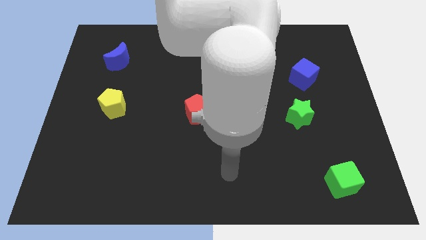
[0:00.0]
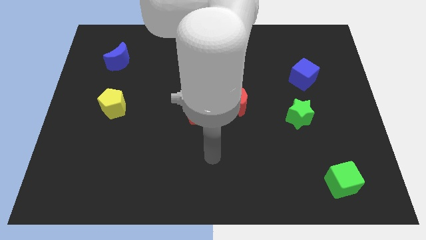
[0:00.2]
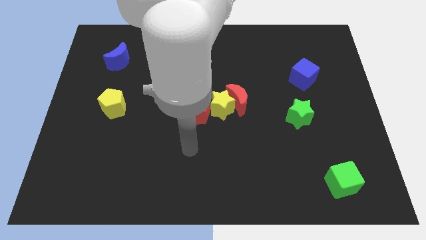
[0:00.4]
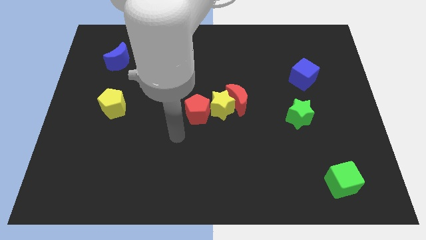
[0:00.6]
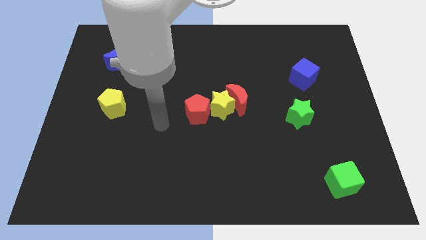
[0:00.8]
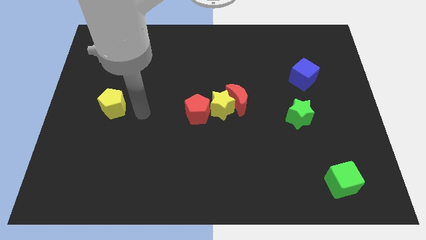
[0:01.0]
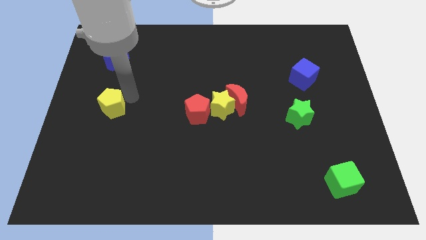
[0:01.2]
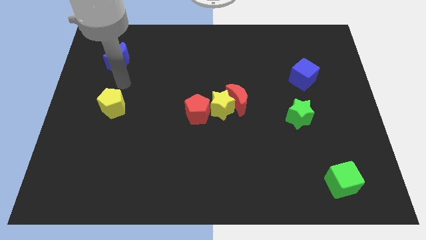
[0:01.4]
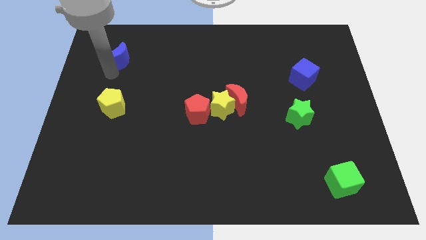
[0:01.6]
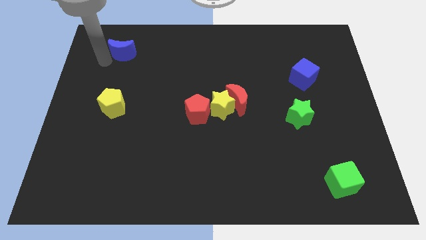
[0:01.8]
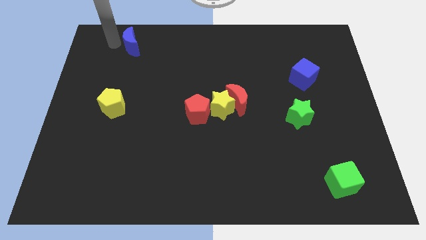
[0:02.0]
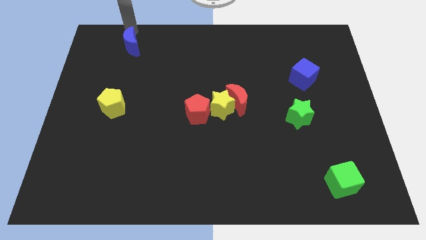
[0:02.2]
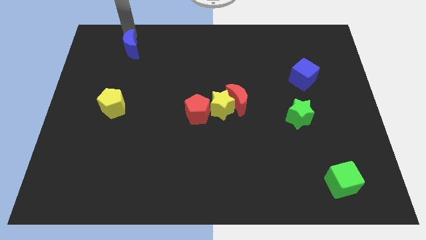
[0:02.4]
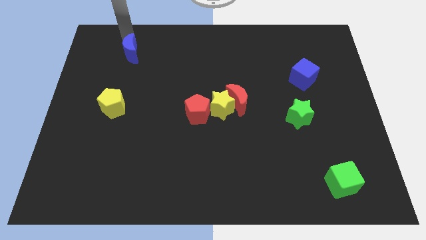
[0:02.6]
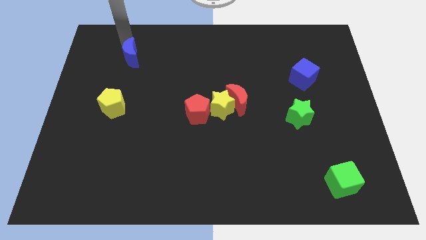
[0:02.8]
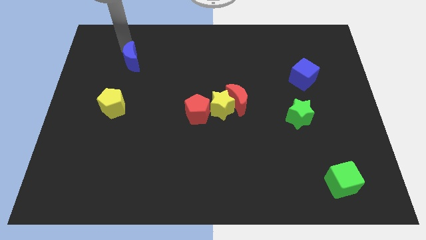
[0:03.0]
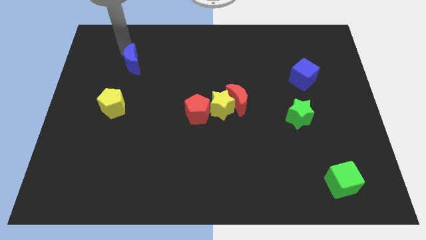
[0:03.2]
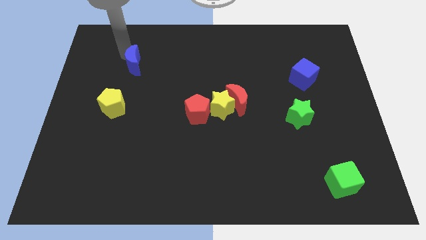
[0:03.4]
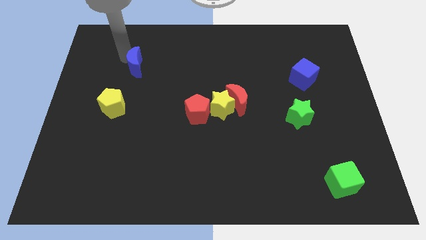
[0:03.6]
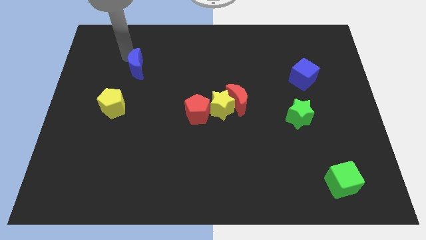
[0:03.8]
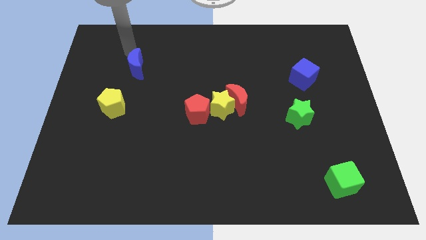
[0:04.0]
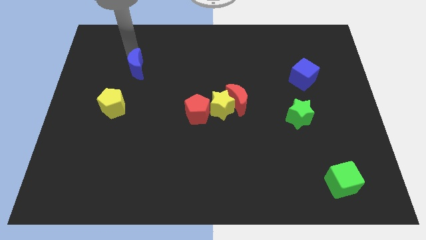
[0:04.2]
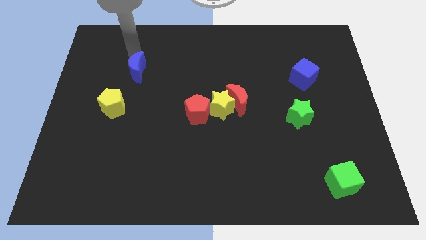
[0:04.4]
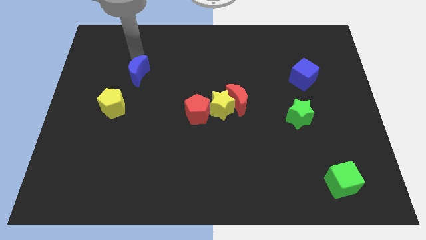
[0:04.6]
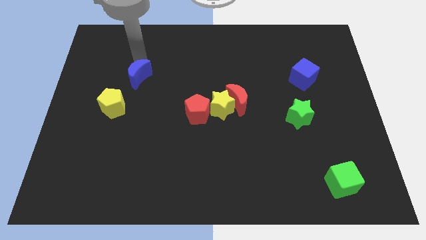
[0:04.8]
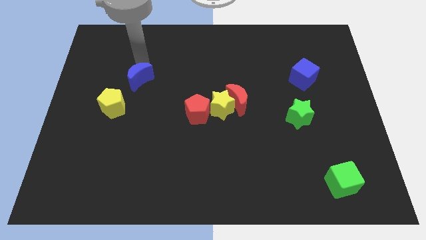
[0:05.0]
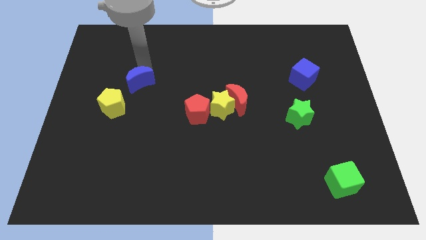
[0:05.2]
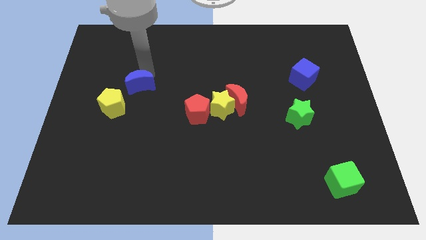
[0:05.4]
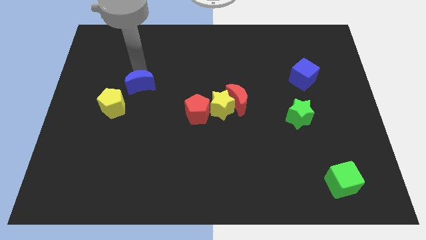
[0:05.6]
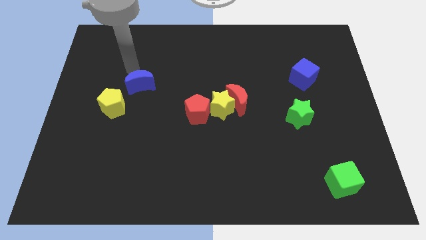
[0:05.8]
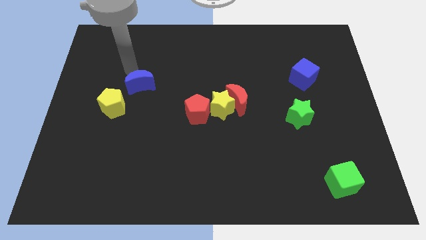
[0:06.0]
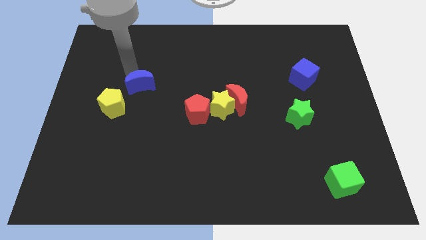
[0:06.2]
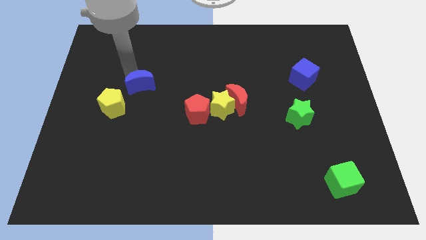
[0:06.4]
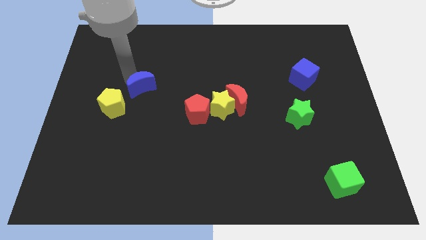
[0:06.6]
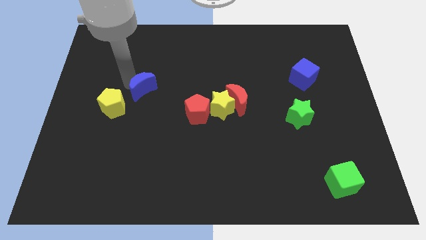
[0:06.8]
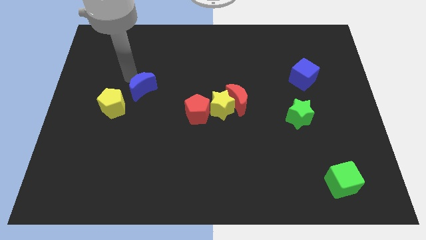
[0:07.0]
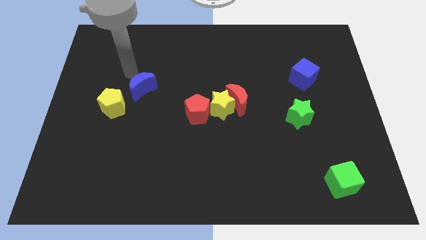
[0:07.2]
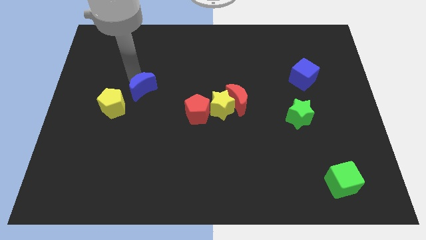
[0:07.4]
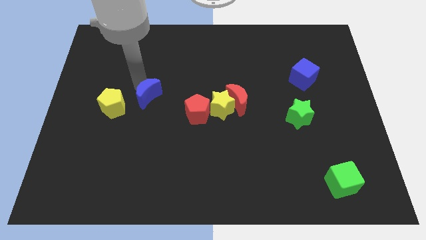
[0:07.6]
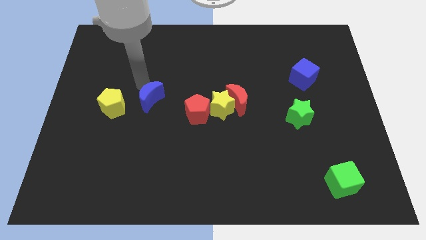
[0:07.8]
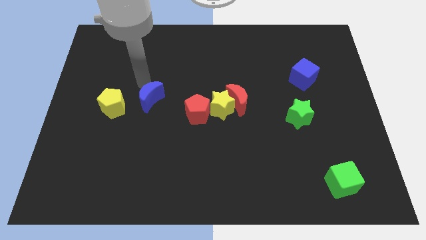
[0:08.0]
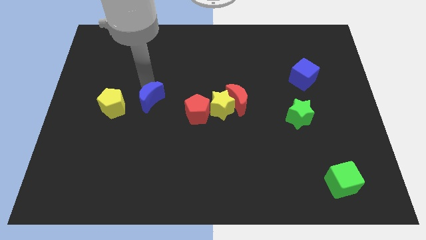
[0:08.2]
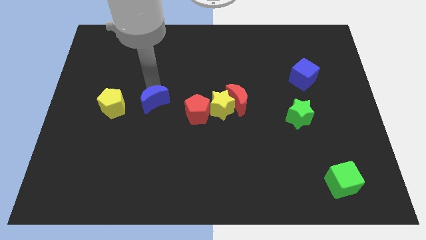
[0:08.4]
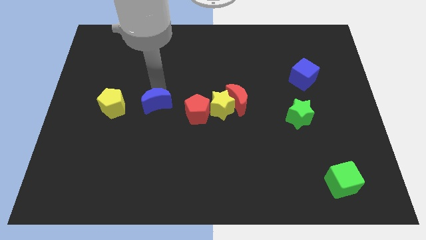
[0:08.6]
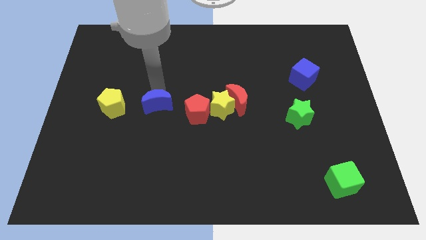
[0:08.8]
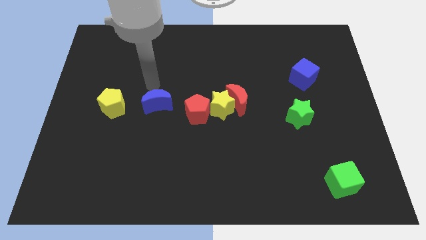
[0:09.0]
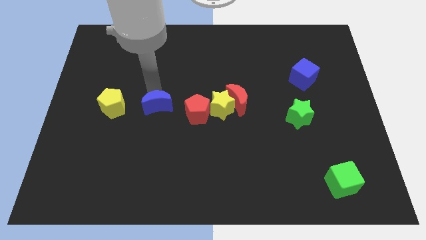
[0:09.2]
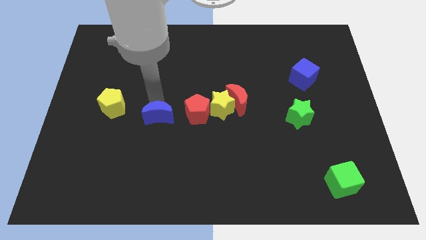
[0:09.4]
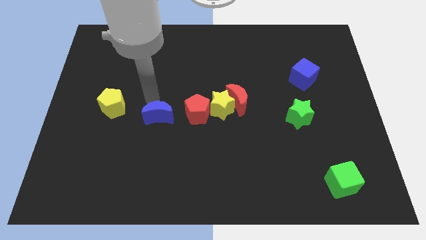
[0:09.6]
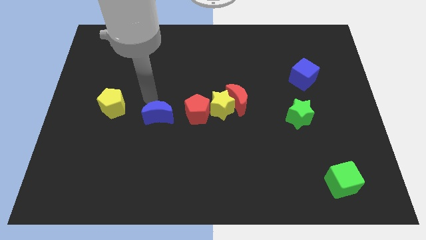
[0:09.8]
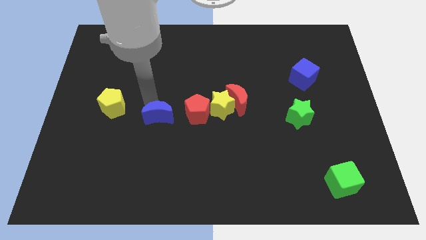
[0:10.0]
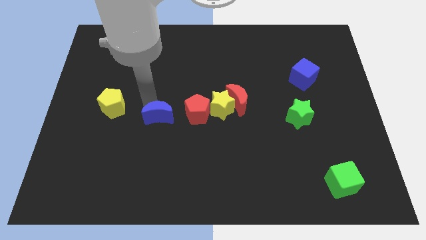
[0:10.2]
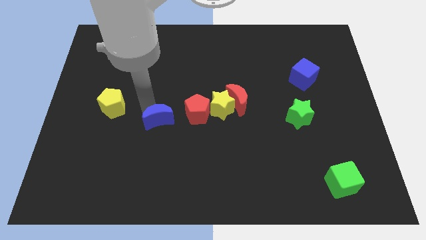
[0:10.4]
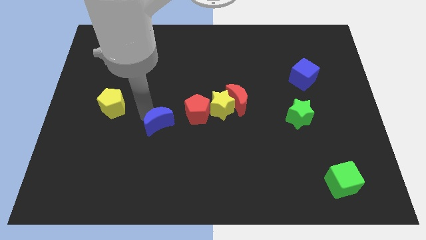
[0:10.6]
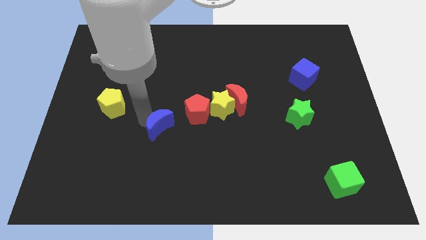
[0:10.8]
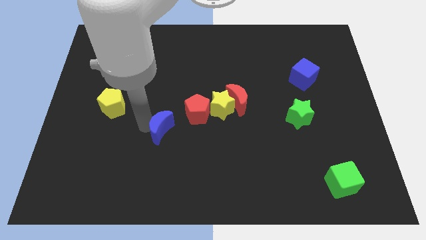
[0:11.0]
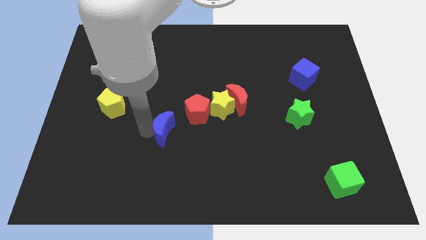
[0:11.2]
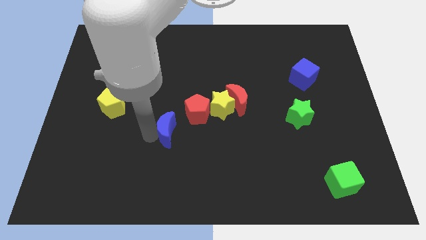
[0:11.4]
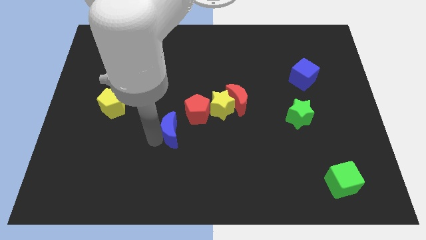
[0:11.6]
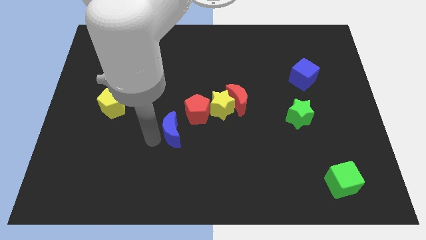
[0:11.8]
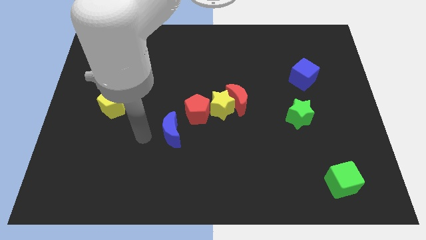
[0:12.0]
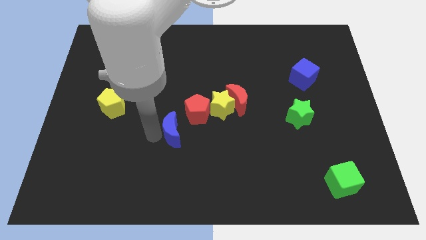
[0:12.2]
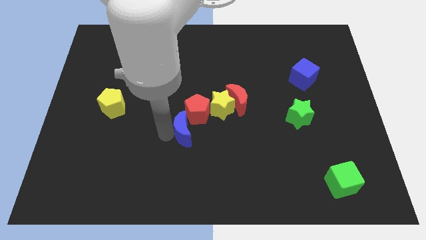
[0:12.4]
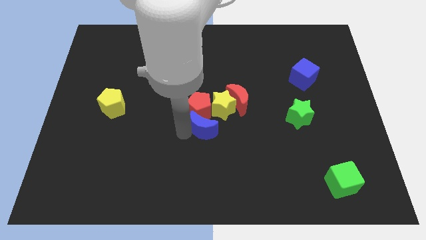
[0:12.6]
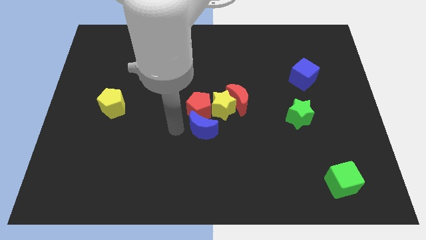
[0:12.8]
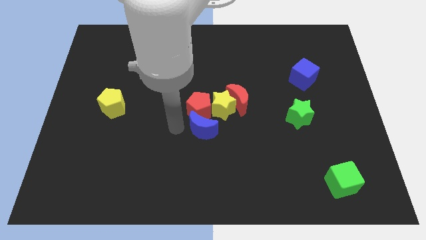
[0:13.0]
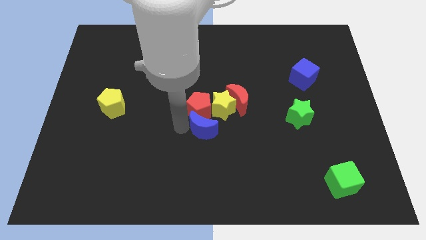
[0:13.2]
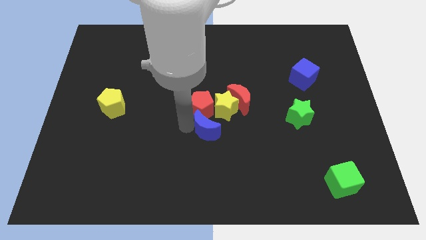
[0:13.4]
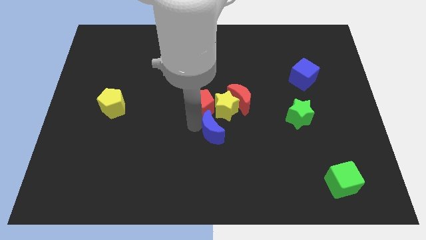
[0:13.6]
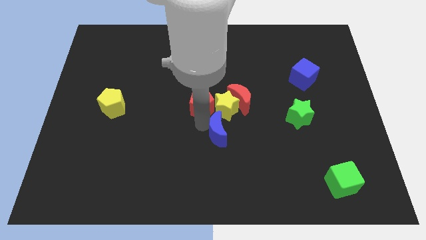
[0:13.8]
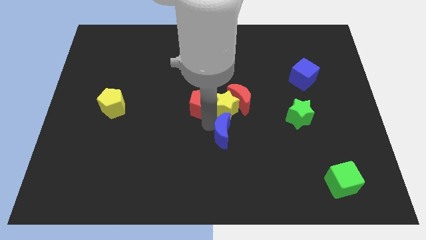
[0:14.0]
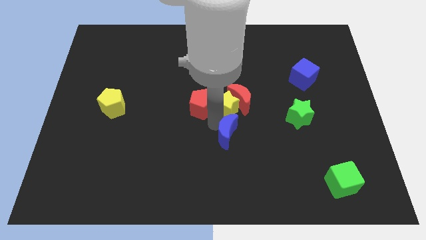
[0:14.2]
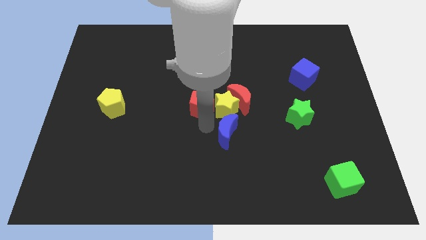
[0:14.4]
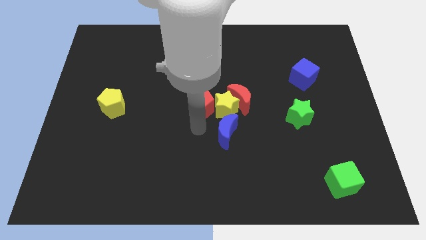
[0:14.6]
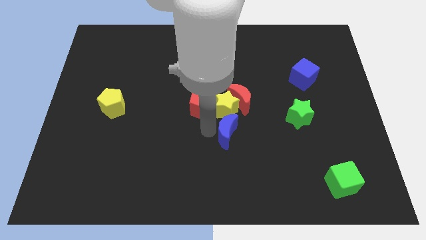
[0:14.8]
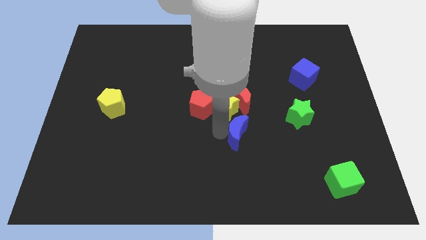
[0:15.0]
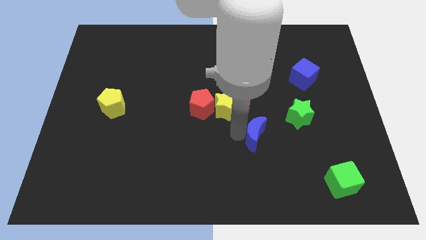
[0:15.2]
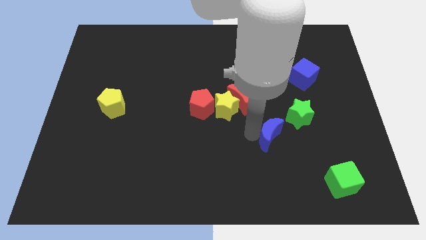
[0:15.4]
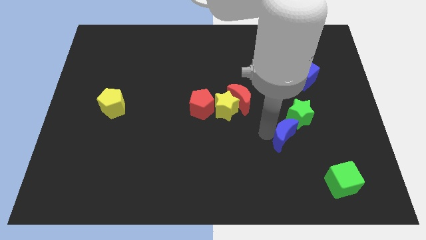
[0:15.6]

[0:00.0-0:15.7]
push the blue moon to the bottom side of the green star
